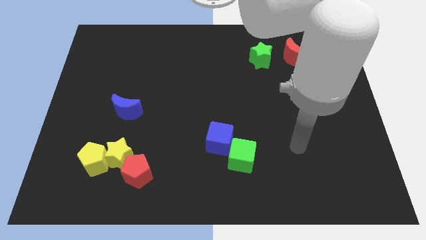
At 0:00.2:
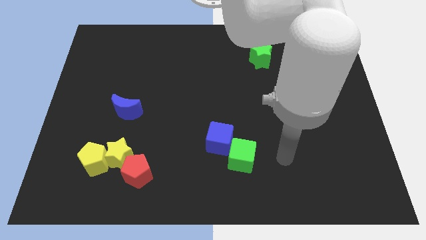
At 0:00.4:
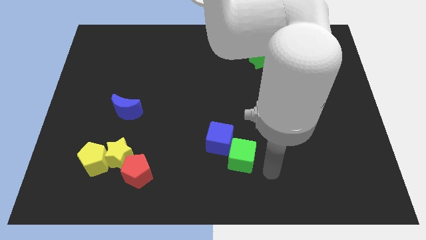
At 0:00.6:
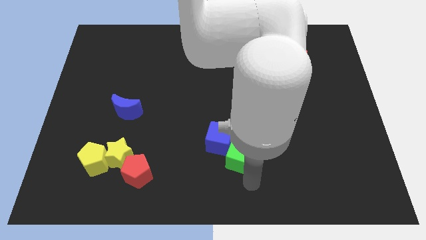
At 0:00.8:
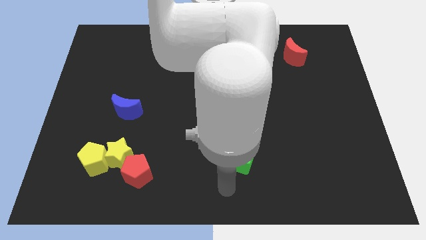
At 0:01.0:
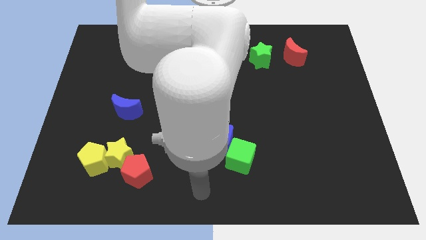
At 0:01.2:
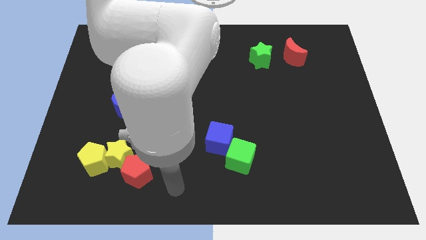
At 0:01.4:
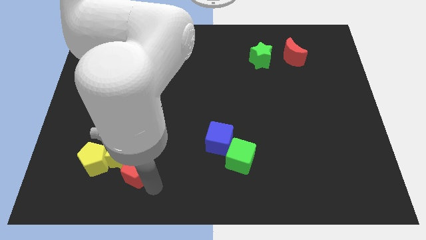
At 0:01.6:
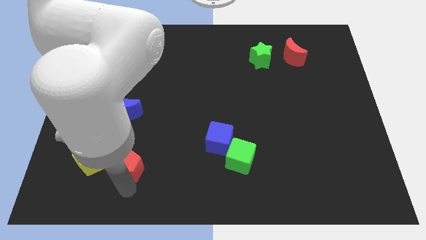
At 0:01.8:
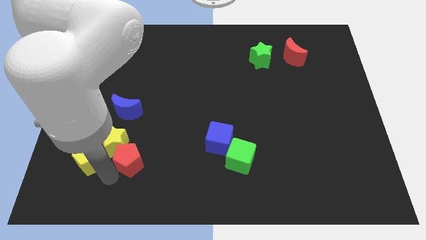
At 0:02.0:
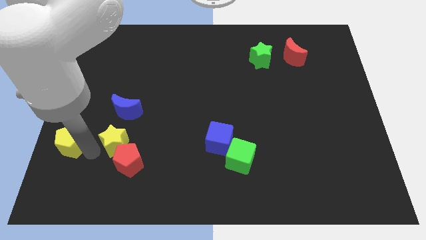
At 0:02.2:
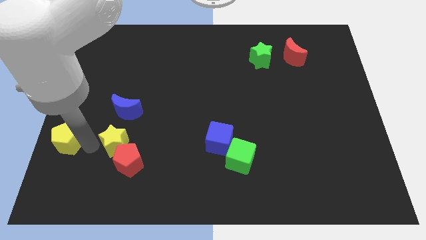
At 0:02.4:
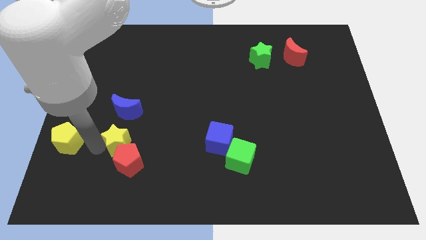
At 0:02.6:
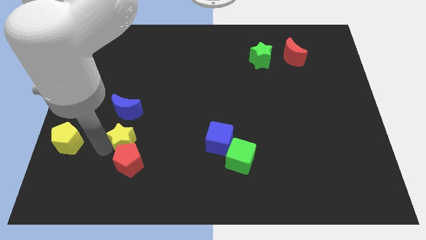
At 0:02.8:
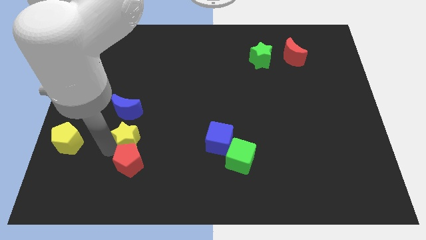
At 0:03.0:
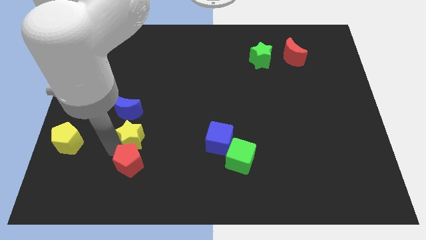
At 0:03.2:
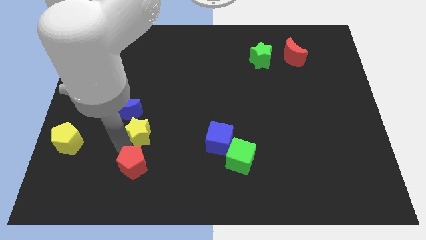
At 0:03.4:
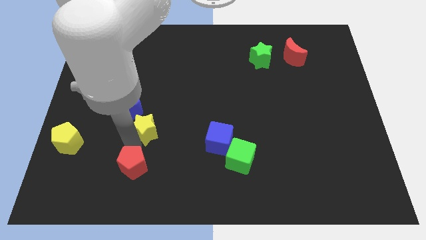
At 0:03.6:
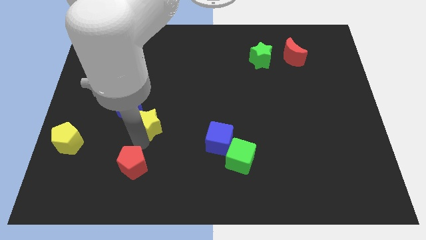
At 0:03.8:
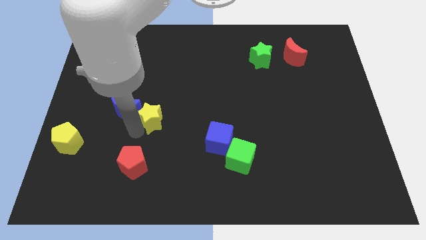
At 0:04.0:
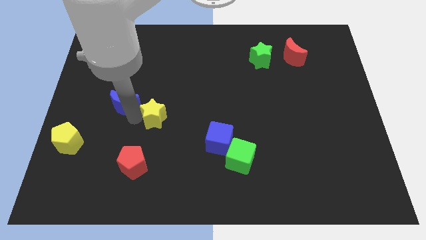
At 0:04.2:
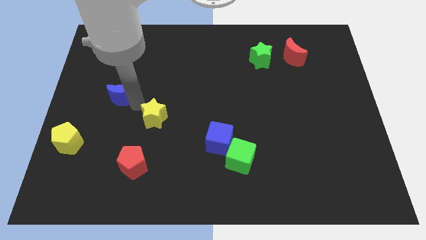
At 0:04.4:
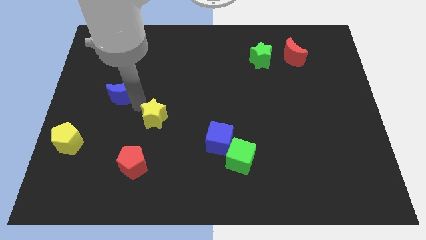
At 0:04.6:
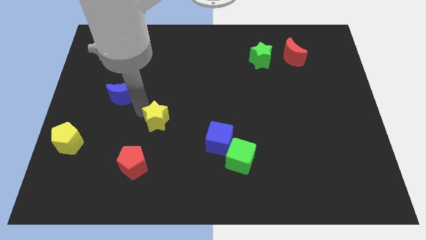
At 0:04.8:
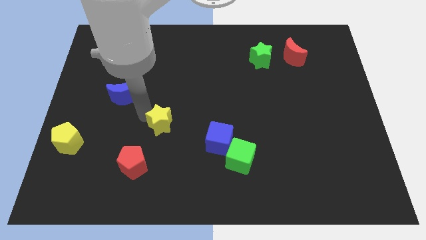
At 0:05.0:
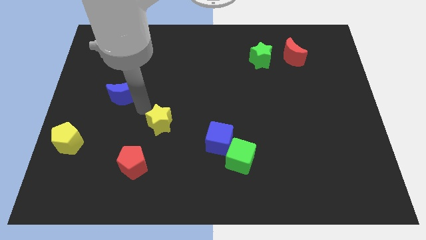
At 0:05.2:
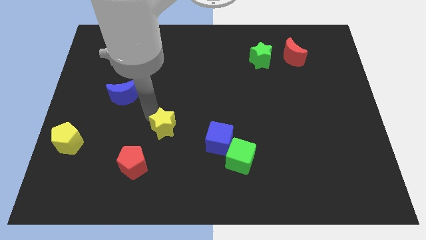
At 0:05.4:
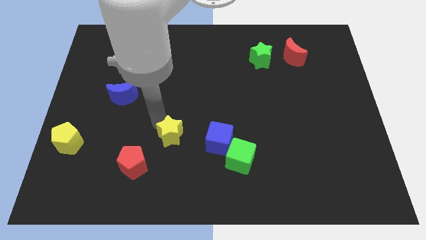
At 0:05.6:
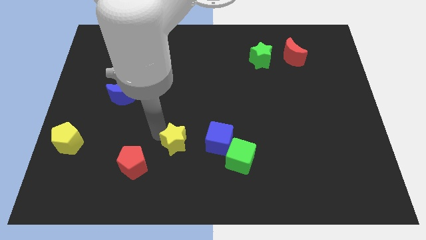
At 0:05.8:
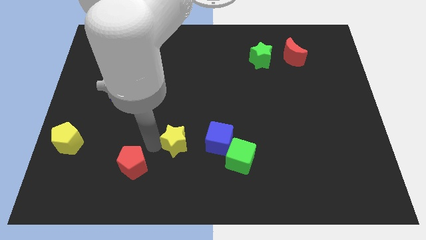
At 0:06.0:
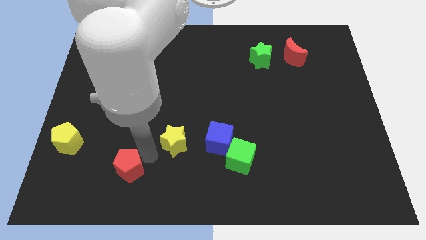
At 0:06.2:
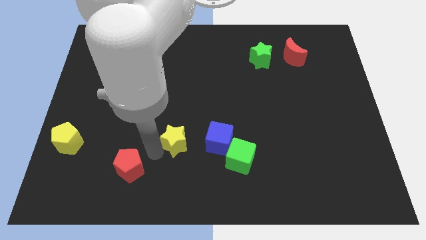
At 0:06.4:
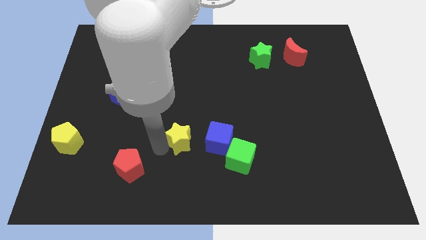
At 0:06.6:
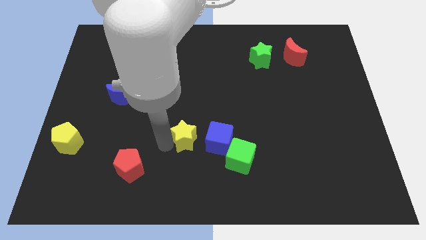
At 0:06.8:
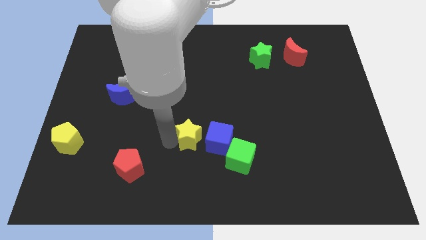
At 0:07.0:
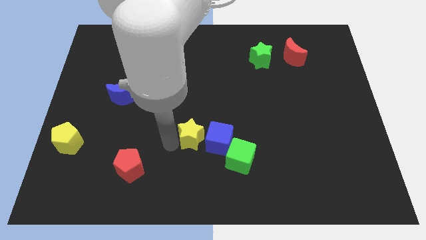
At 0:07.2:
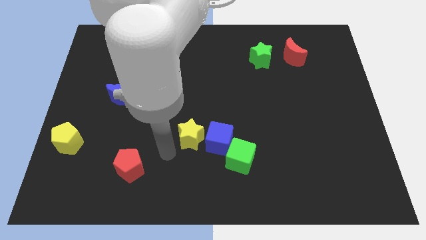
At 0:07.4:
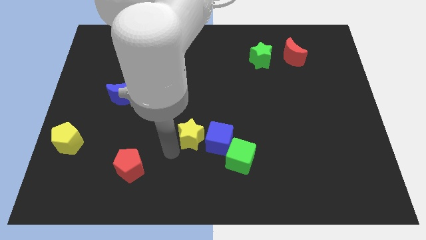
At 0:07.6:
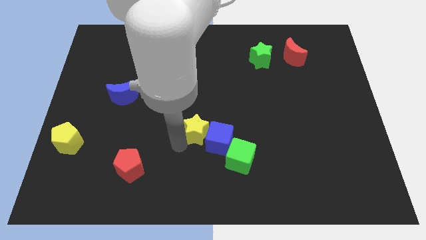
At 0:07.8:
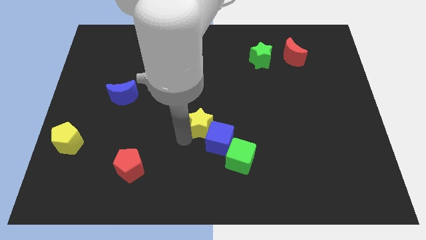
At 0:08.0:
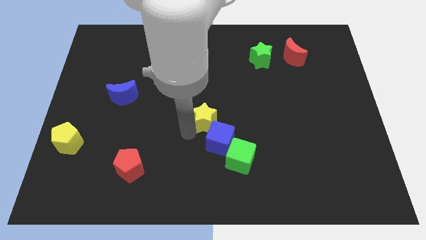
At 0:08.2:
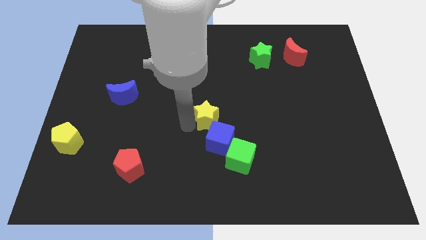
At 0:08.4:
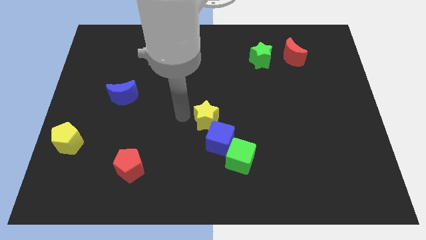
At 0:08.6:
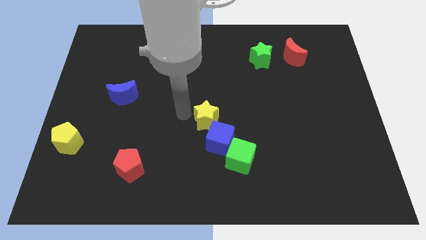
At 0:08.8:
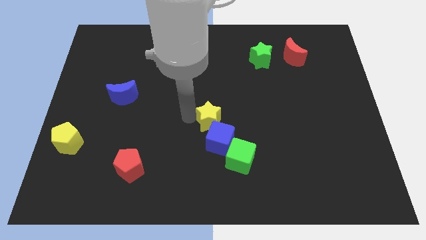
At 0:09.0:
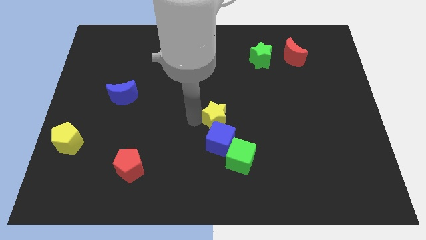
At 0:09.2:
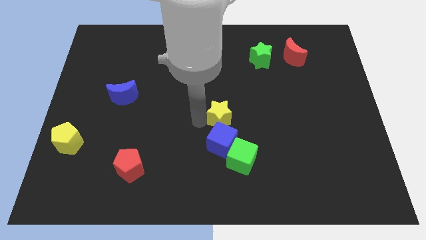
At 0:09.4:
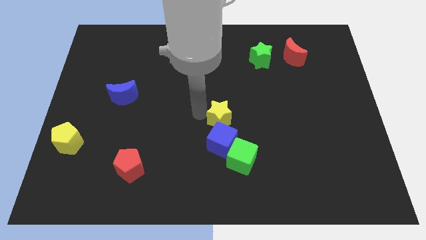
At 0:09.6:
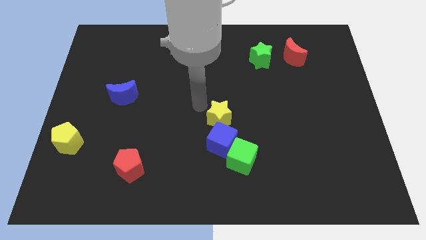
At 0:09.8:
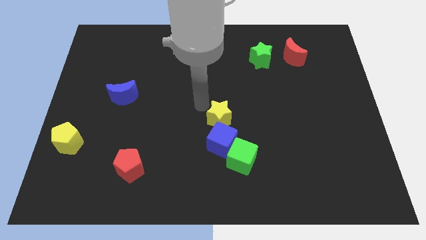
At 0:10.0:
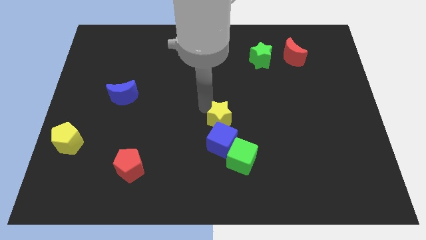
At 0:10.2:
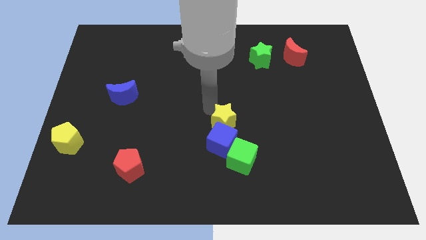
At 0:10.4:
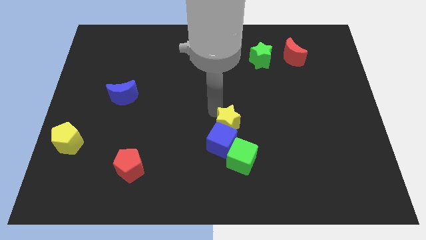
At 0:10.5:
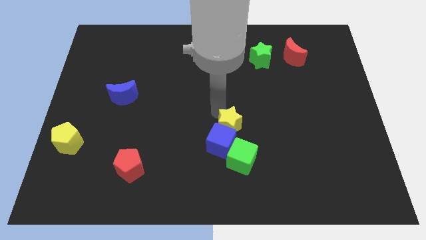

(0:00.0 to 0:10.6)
push the yellow star right

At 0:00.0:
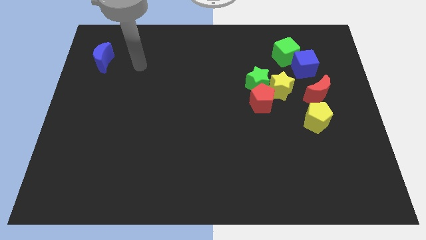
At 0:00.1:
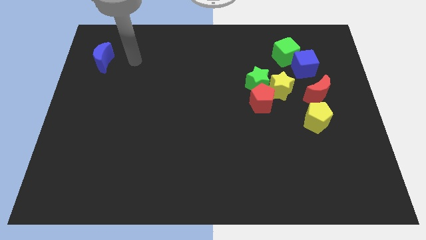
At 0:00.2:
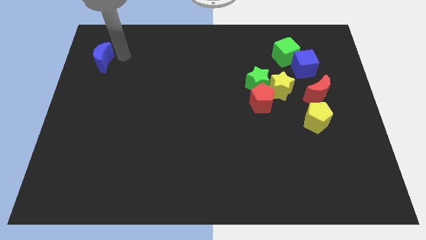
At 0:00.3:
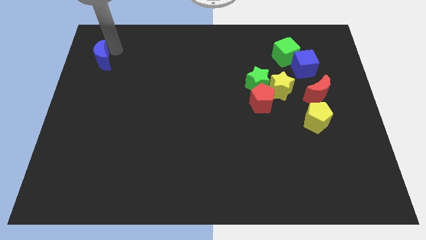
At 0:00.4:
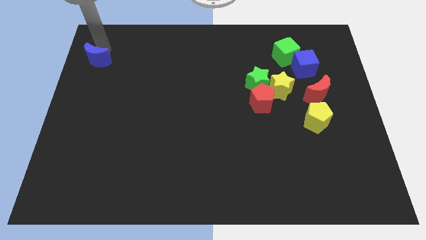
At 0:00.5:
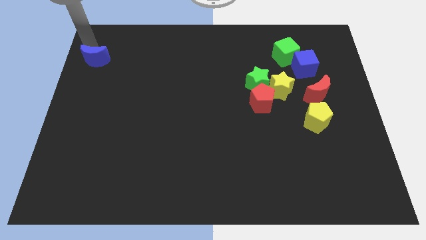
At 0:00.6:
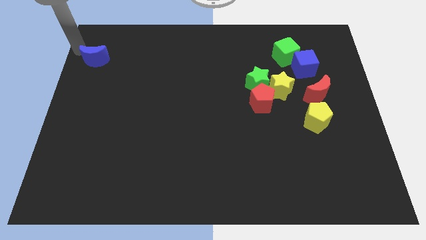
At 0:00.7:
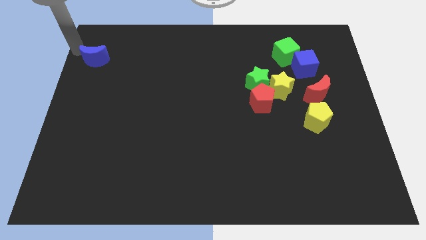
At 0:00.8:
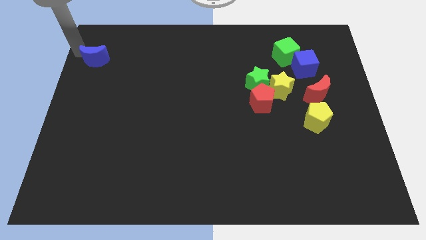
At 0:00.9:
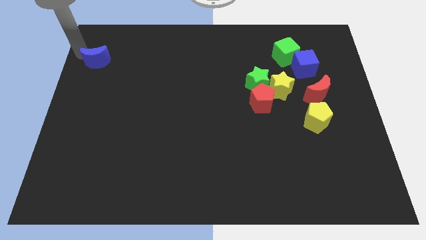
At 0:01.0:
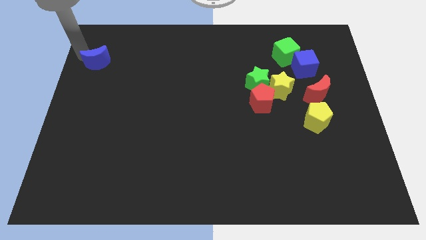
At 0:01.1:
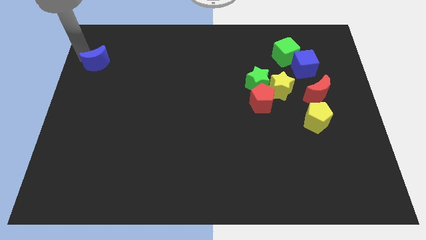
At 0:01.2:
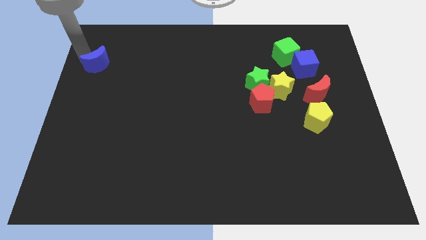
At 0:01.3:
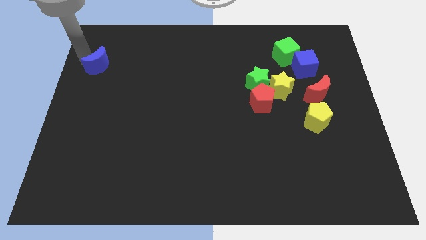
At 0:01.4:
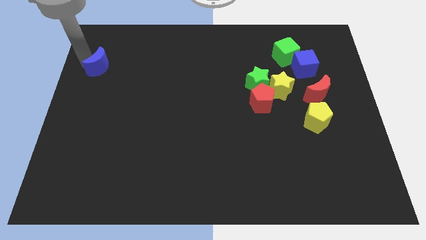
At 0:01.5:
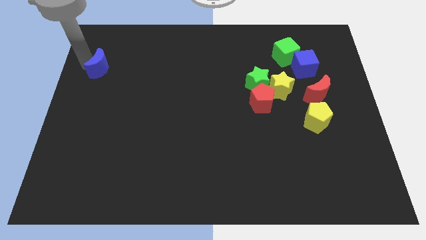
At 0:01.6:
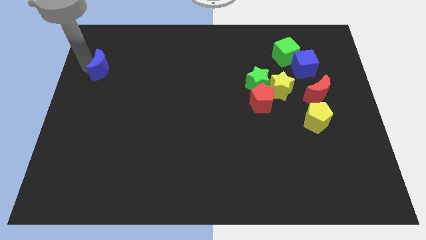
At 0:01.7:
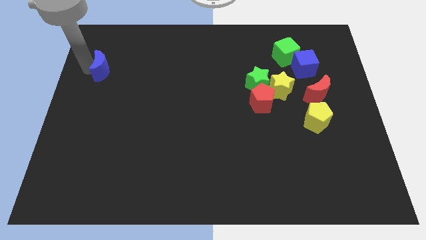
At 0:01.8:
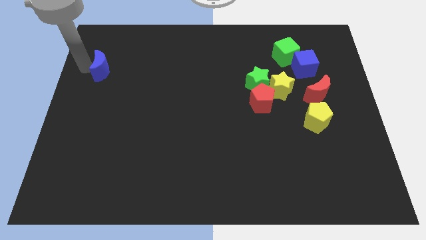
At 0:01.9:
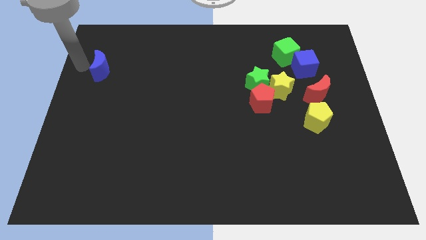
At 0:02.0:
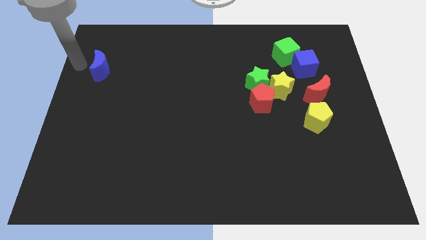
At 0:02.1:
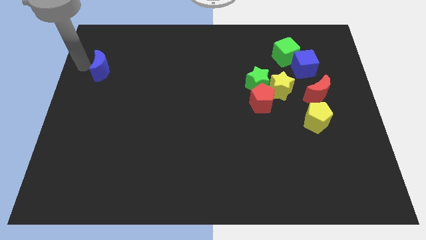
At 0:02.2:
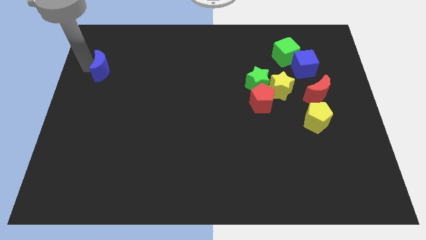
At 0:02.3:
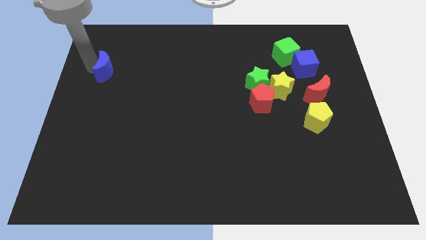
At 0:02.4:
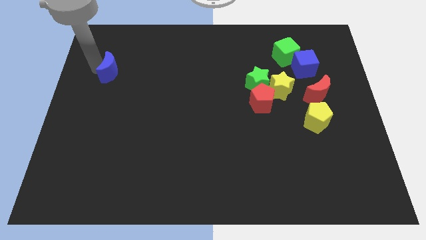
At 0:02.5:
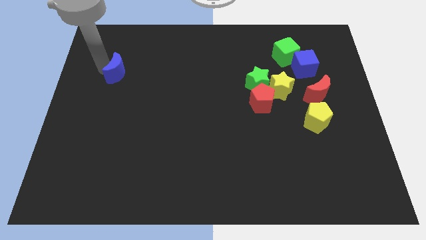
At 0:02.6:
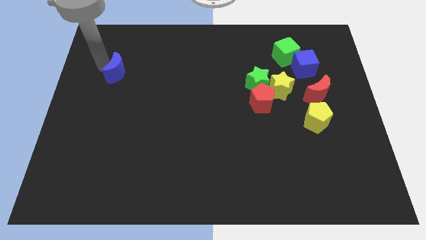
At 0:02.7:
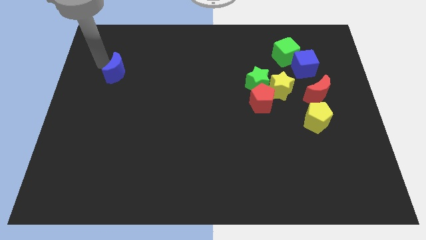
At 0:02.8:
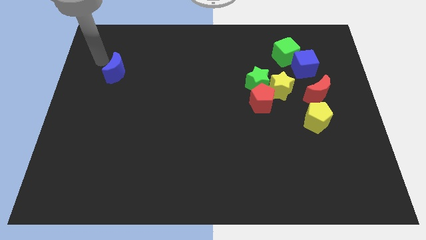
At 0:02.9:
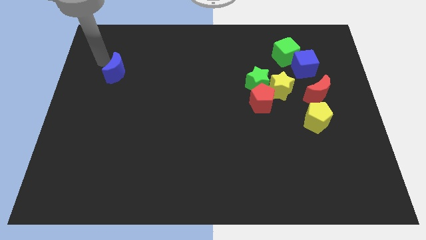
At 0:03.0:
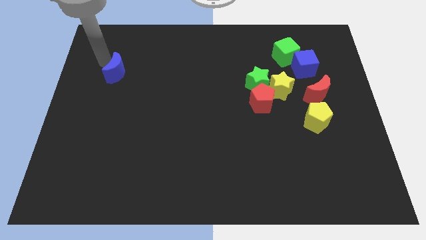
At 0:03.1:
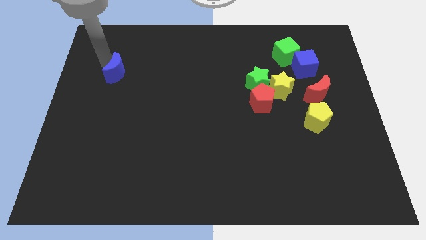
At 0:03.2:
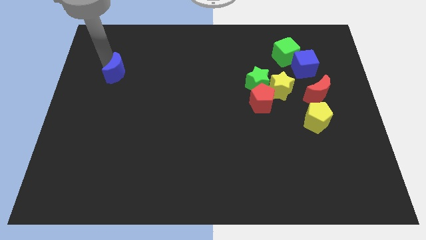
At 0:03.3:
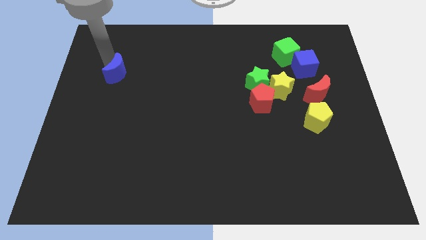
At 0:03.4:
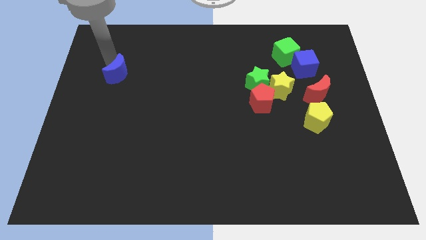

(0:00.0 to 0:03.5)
move the blue moon slightly diagonally downwards and right
